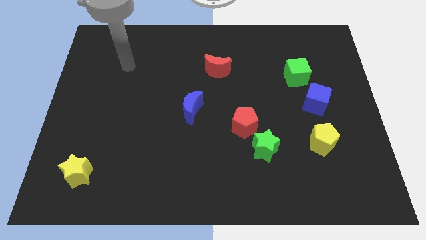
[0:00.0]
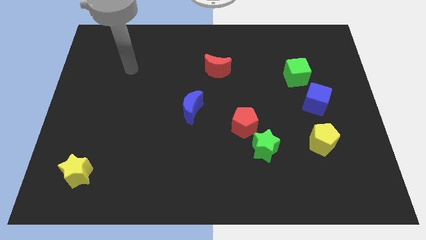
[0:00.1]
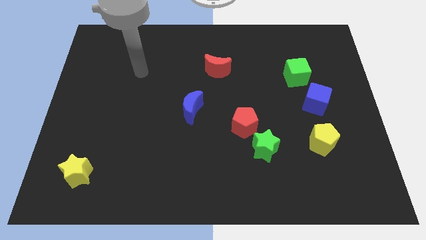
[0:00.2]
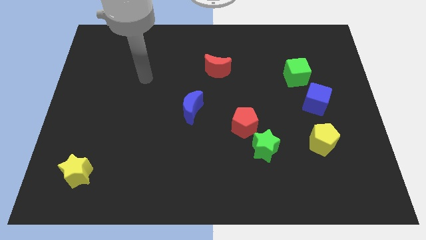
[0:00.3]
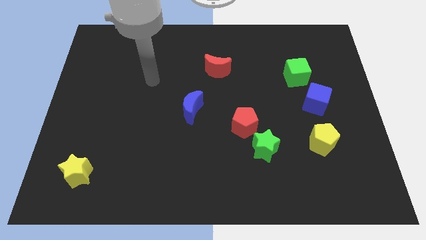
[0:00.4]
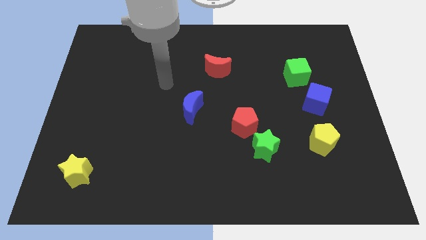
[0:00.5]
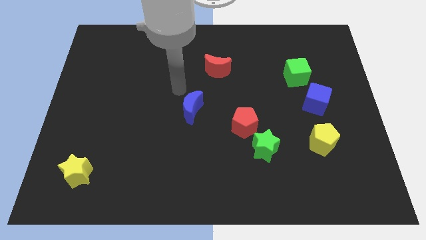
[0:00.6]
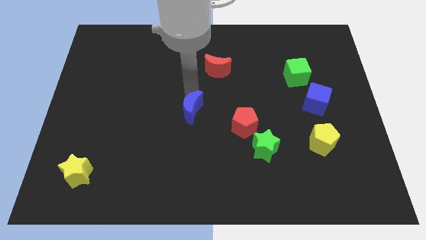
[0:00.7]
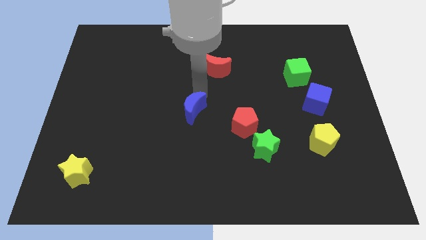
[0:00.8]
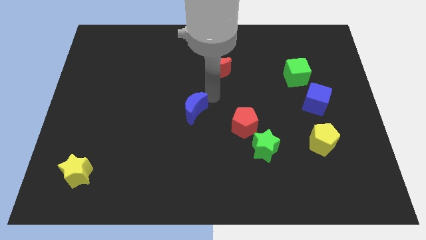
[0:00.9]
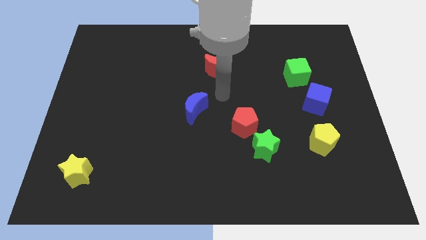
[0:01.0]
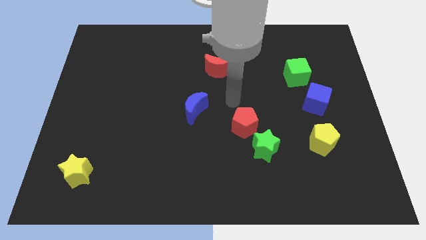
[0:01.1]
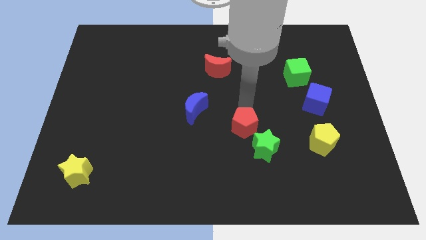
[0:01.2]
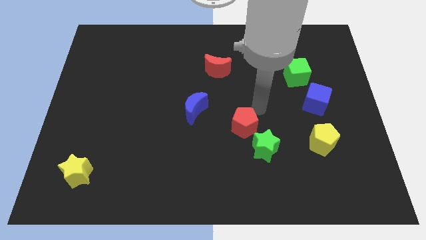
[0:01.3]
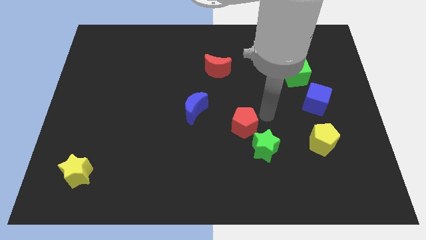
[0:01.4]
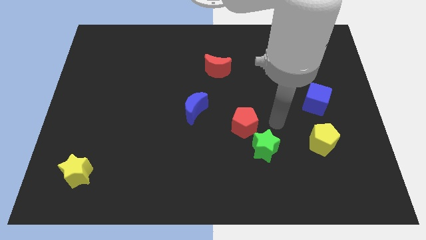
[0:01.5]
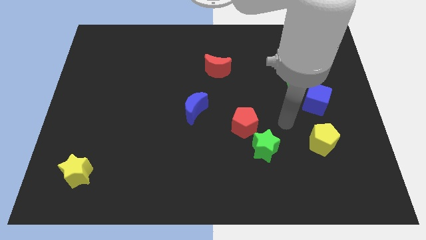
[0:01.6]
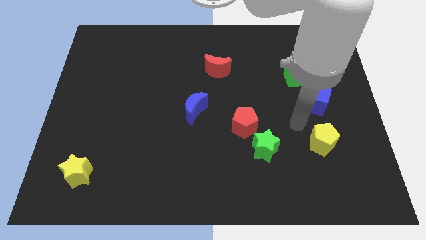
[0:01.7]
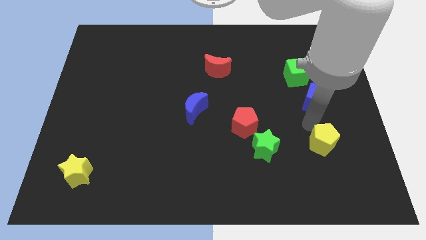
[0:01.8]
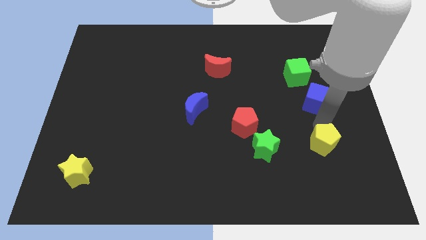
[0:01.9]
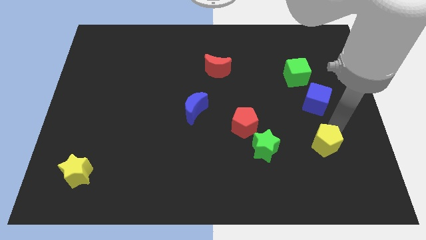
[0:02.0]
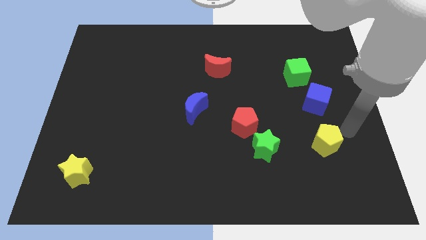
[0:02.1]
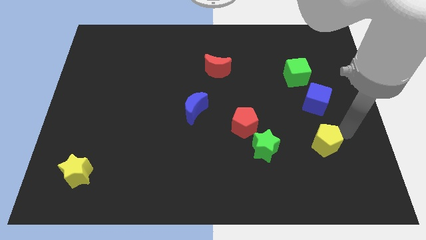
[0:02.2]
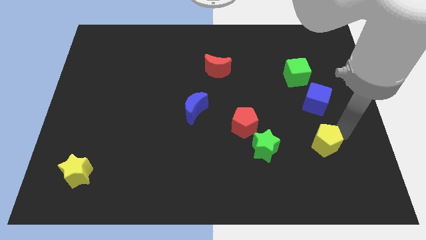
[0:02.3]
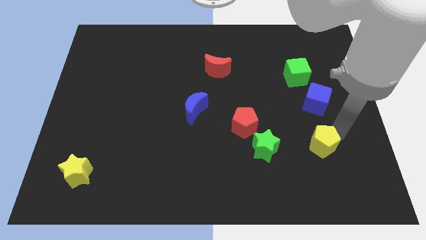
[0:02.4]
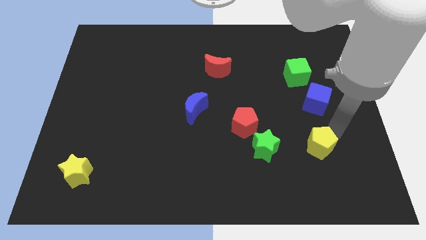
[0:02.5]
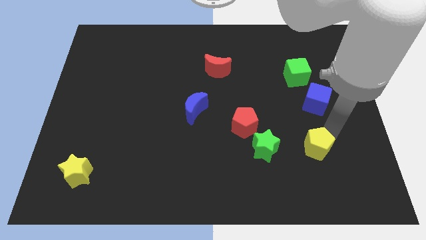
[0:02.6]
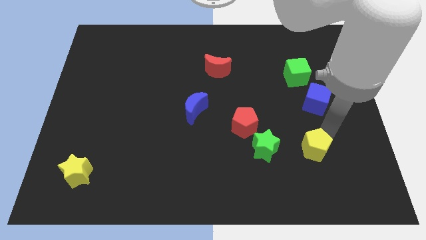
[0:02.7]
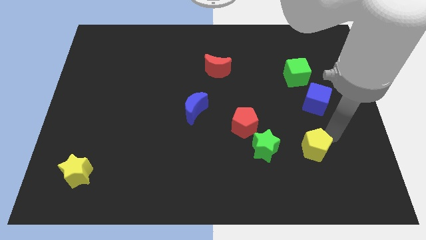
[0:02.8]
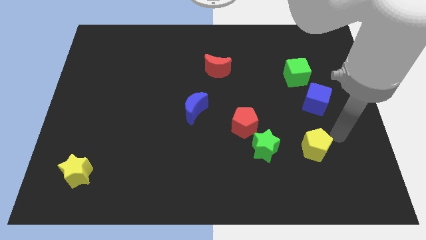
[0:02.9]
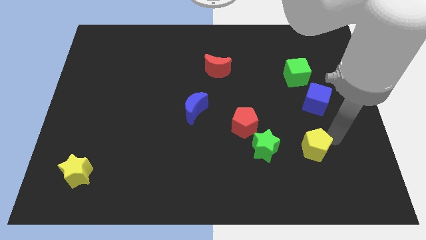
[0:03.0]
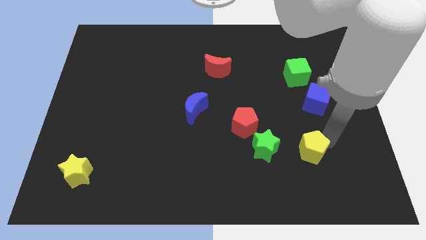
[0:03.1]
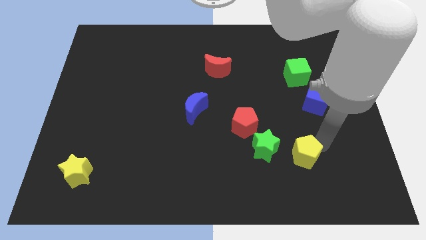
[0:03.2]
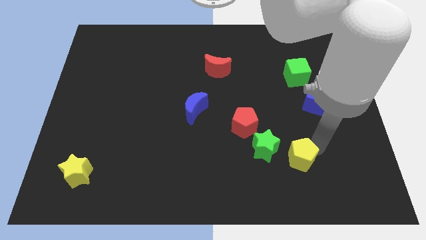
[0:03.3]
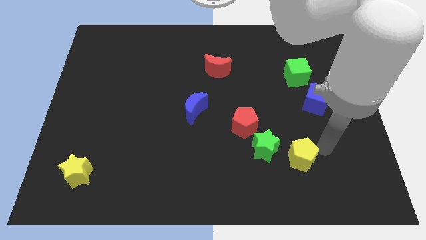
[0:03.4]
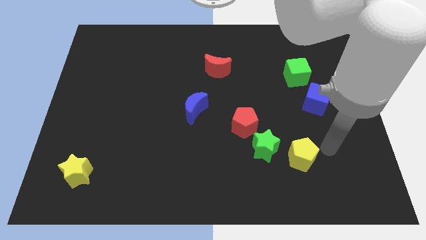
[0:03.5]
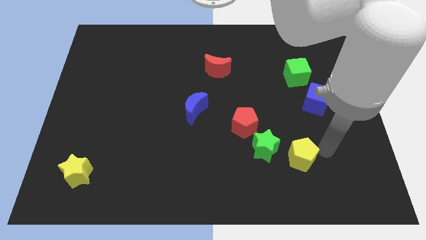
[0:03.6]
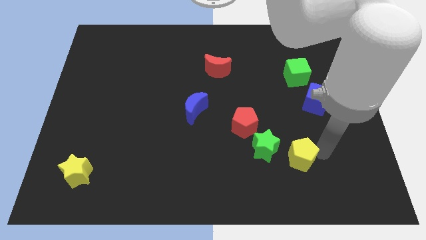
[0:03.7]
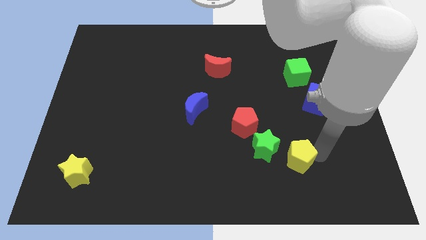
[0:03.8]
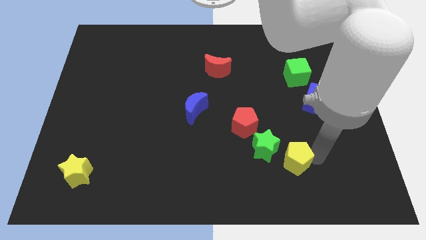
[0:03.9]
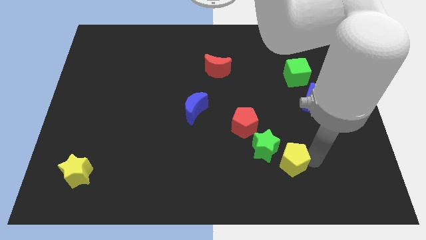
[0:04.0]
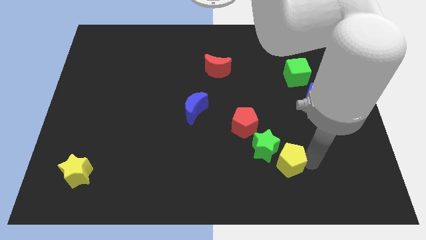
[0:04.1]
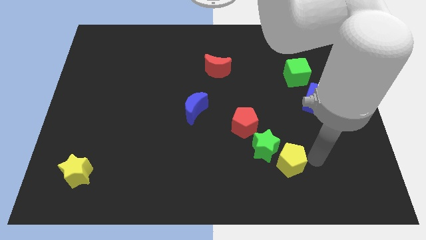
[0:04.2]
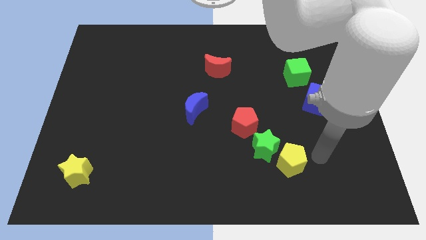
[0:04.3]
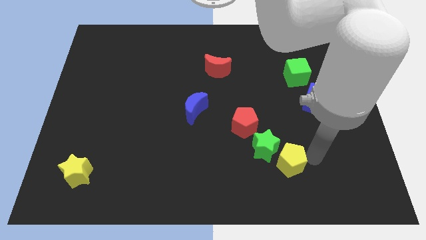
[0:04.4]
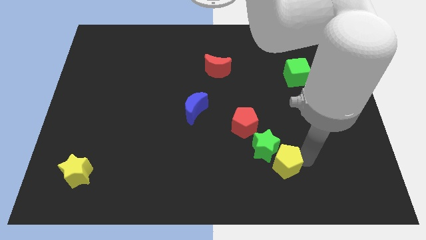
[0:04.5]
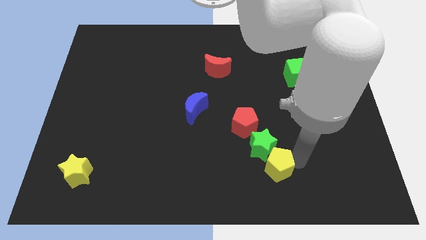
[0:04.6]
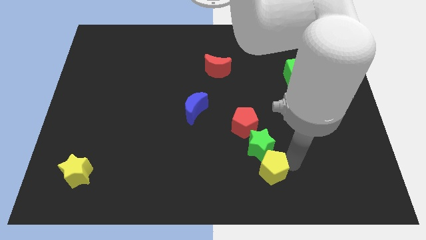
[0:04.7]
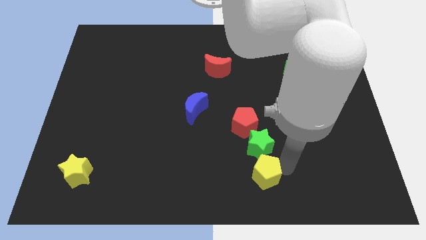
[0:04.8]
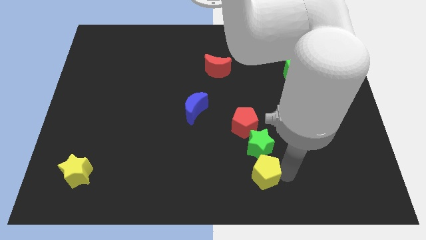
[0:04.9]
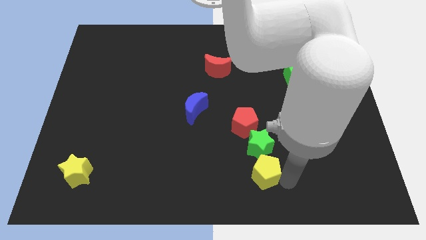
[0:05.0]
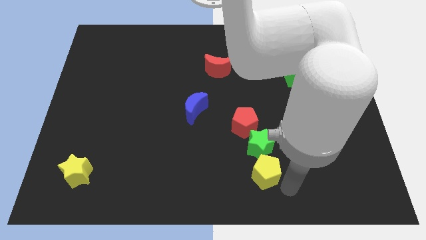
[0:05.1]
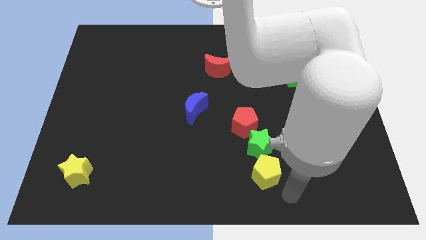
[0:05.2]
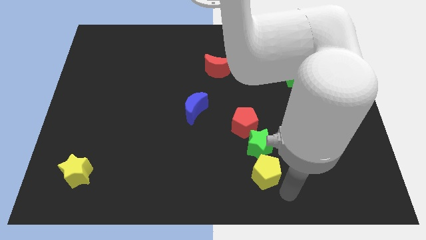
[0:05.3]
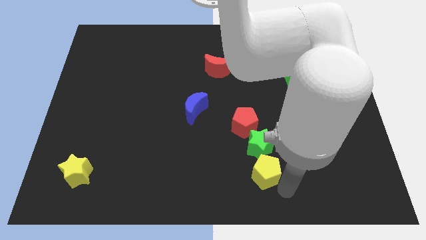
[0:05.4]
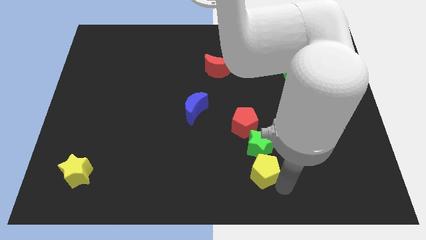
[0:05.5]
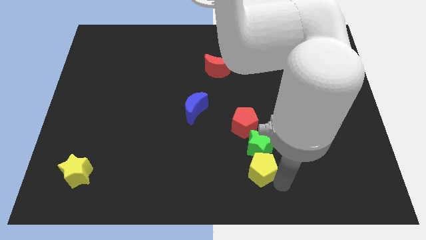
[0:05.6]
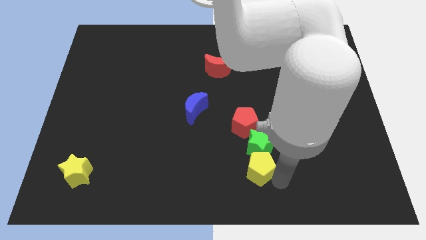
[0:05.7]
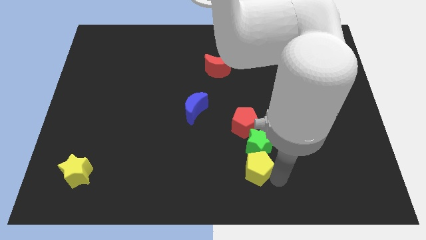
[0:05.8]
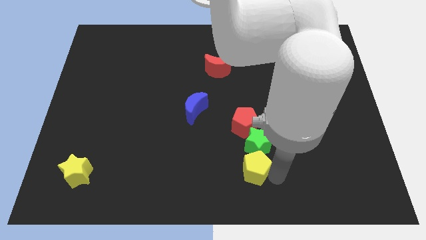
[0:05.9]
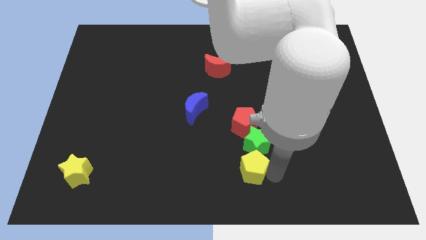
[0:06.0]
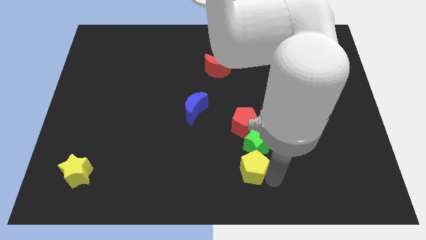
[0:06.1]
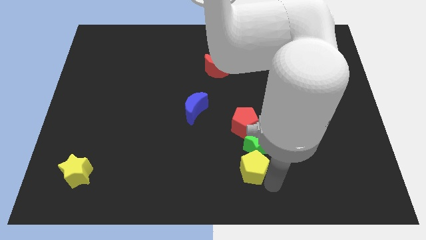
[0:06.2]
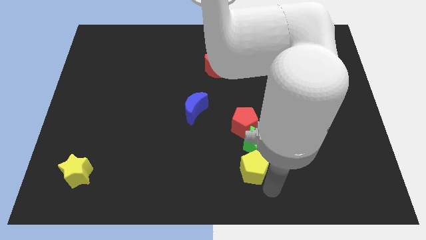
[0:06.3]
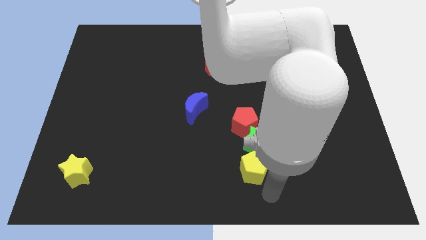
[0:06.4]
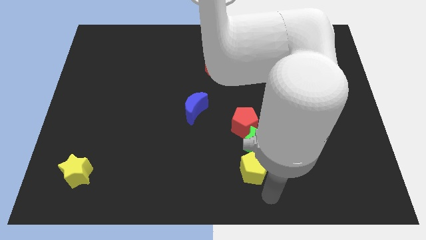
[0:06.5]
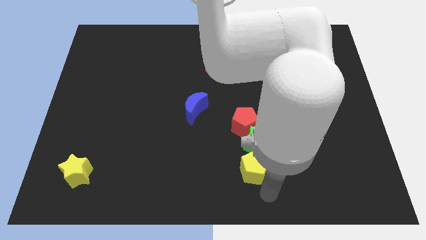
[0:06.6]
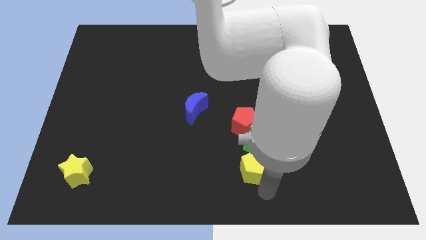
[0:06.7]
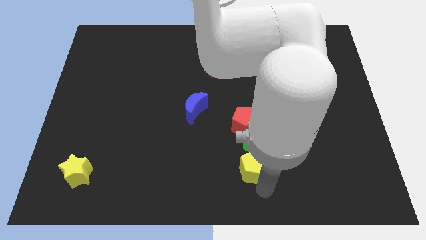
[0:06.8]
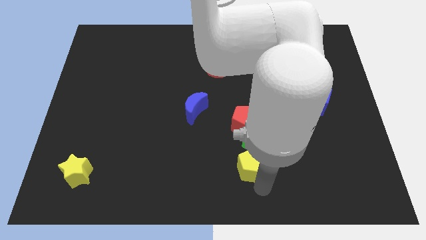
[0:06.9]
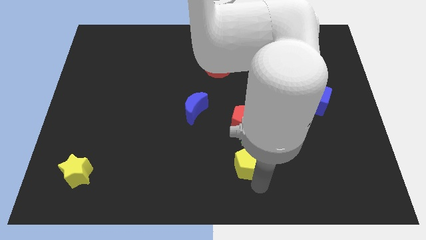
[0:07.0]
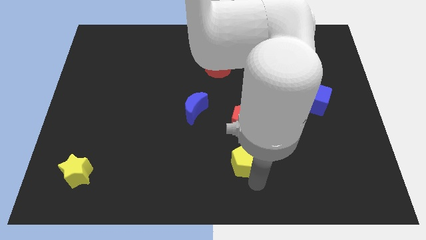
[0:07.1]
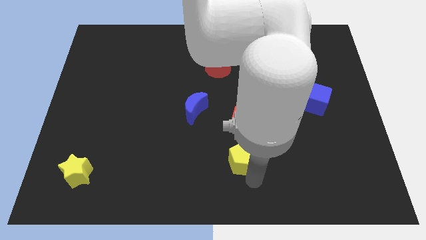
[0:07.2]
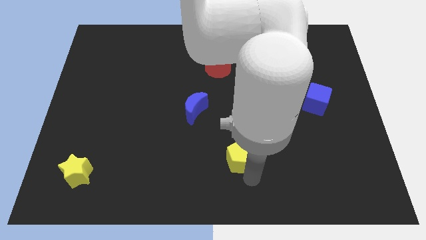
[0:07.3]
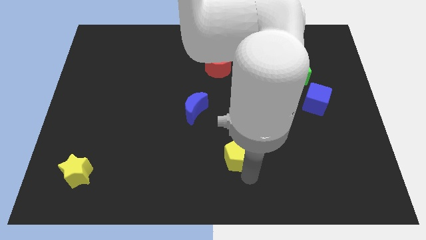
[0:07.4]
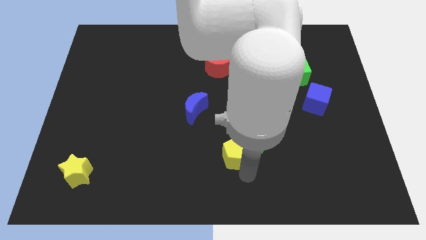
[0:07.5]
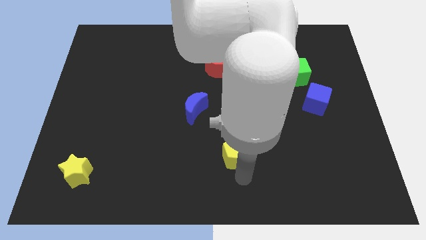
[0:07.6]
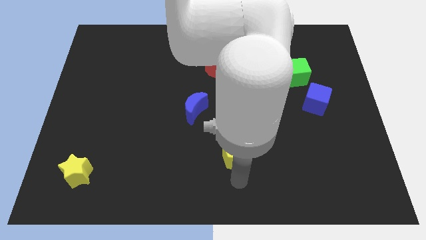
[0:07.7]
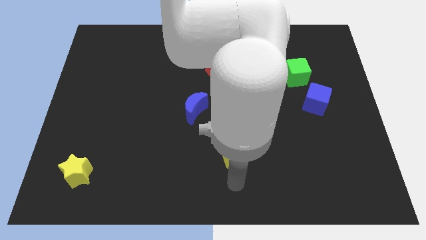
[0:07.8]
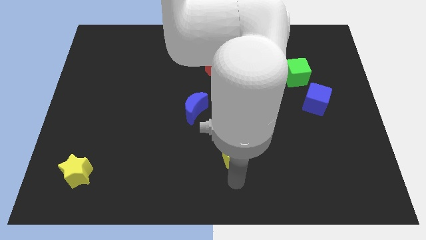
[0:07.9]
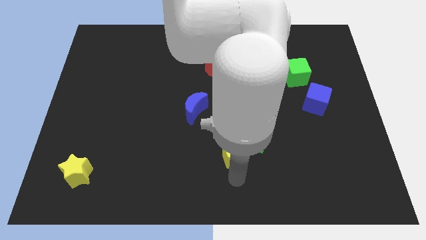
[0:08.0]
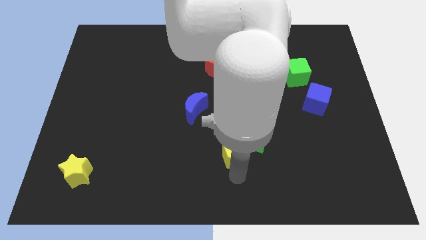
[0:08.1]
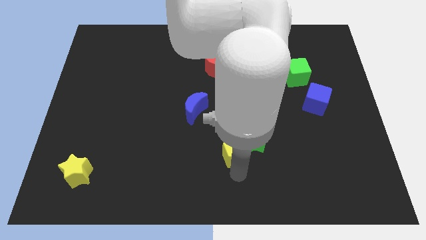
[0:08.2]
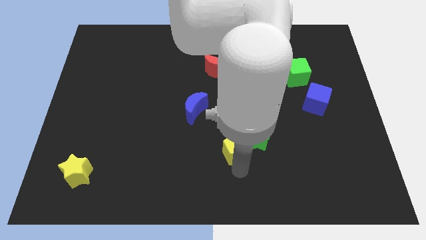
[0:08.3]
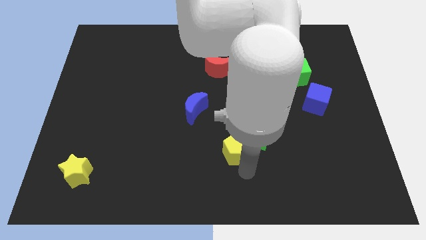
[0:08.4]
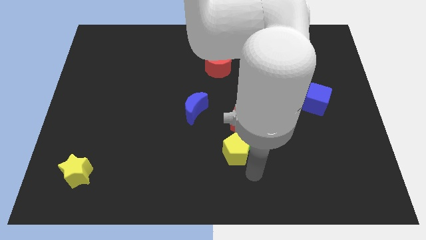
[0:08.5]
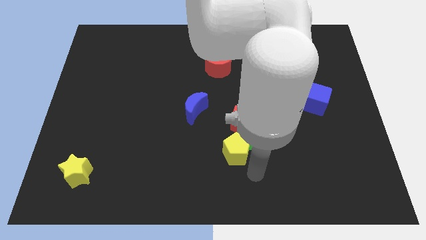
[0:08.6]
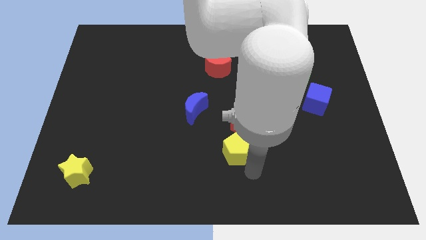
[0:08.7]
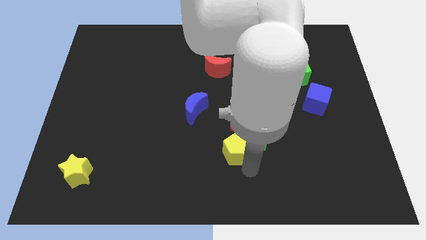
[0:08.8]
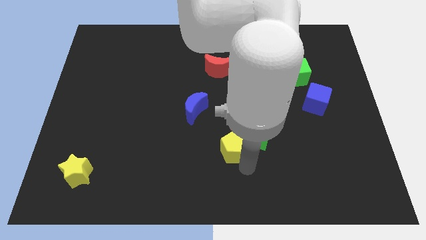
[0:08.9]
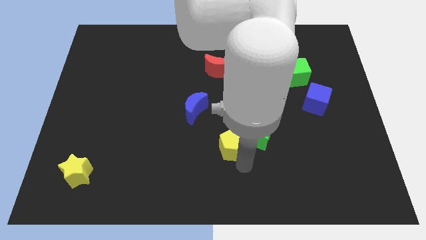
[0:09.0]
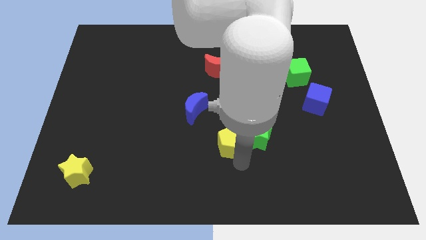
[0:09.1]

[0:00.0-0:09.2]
put the yellow pentagon diagonally down and to the right of the blue moon
